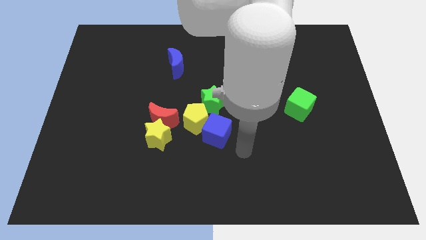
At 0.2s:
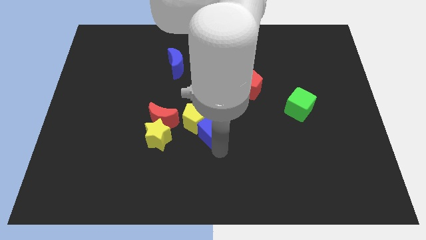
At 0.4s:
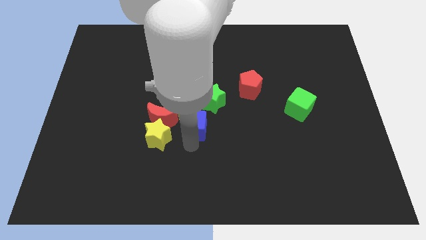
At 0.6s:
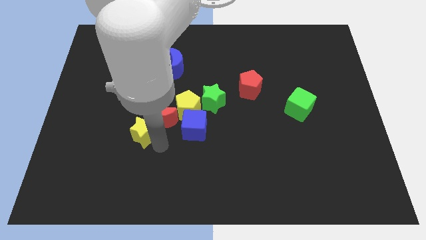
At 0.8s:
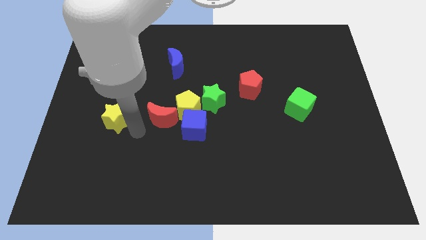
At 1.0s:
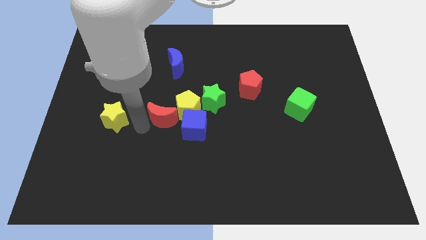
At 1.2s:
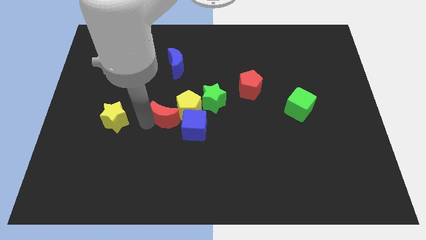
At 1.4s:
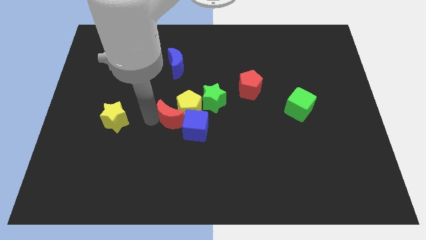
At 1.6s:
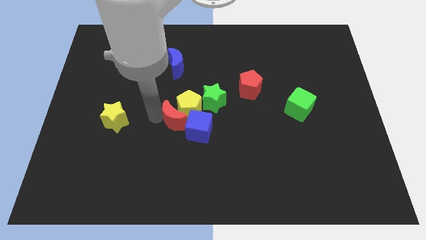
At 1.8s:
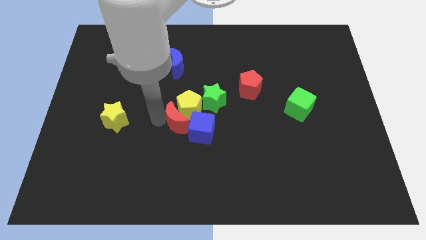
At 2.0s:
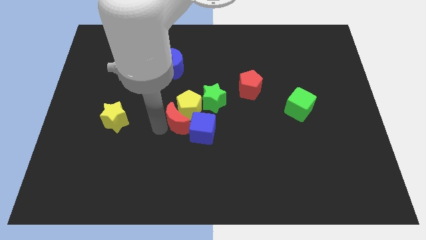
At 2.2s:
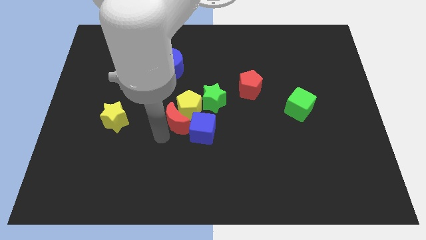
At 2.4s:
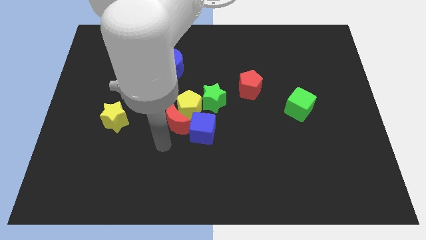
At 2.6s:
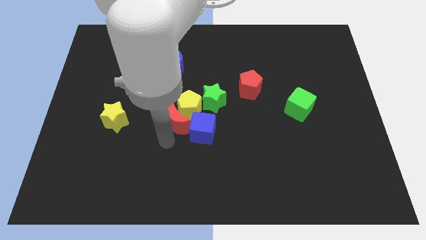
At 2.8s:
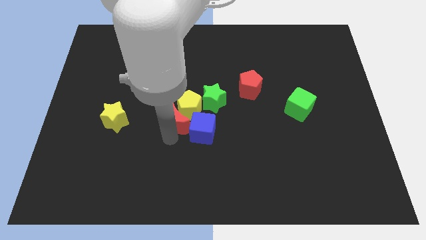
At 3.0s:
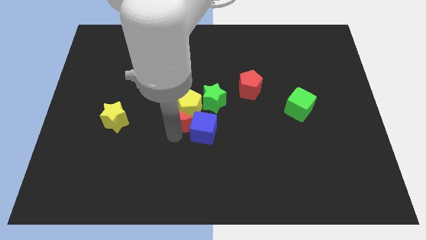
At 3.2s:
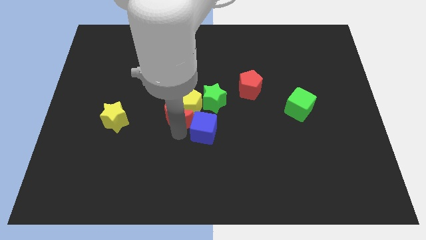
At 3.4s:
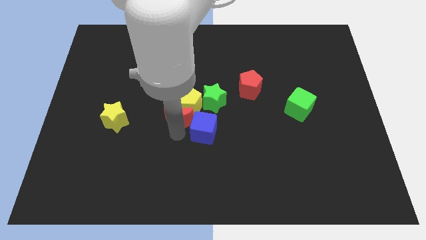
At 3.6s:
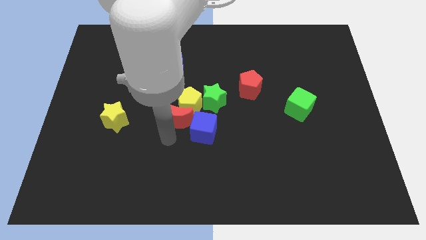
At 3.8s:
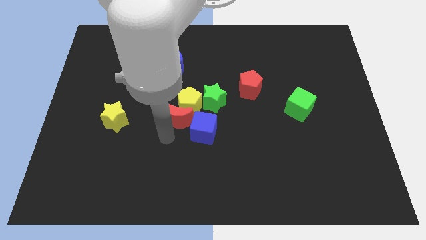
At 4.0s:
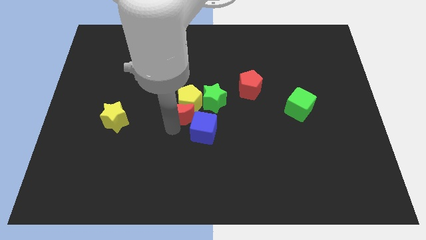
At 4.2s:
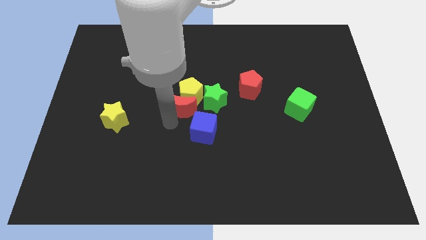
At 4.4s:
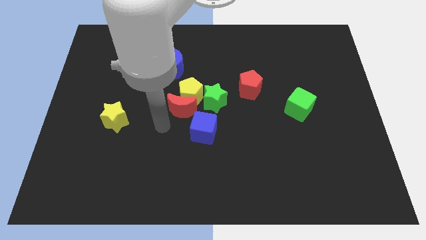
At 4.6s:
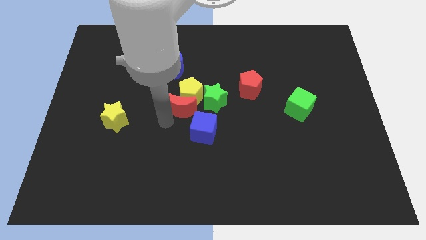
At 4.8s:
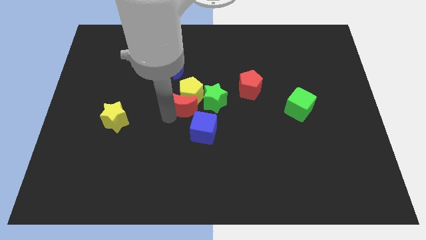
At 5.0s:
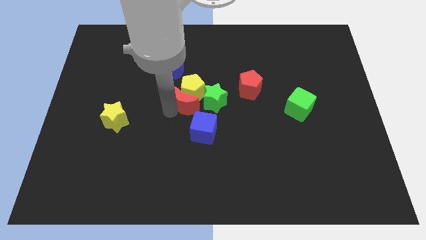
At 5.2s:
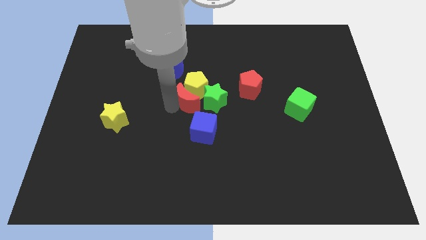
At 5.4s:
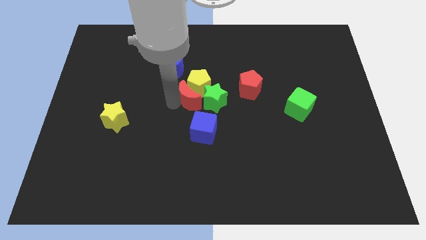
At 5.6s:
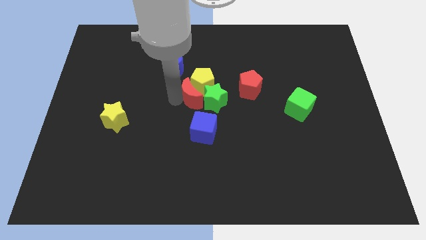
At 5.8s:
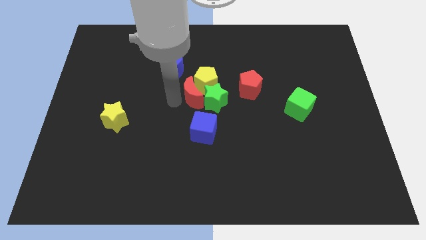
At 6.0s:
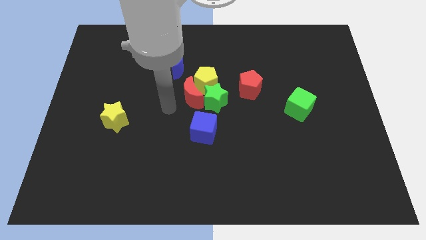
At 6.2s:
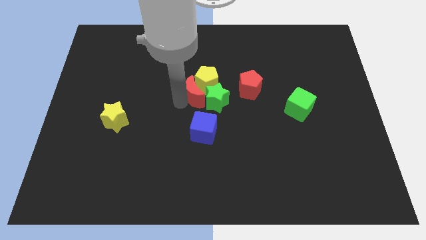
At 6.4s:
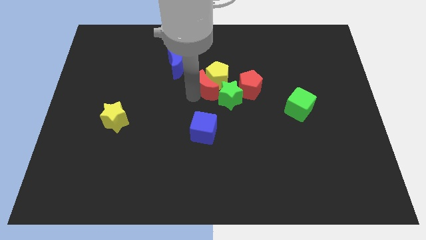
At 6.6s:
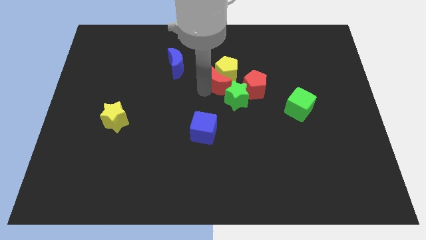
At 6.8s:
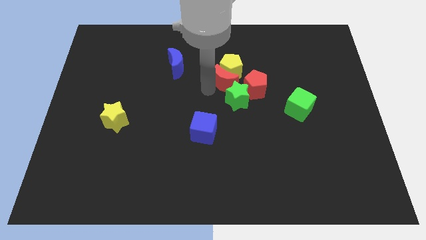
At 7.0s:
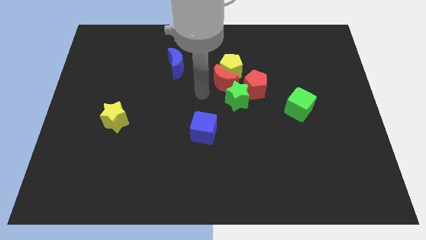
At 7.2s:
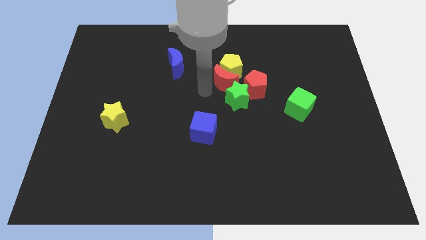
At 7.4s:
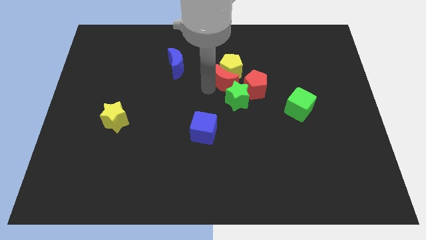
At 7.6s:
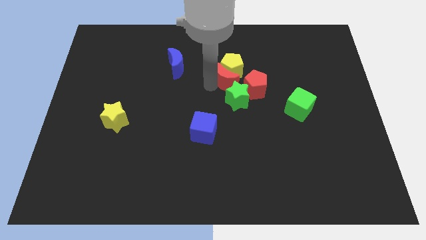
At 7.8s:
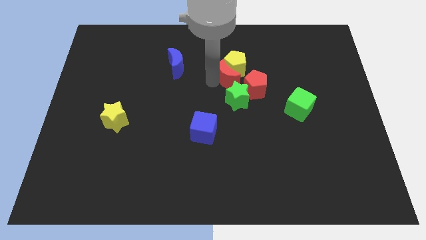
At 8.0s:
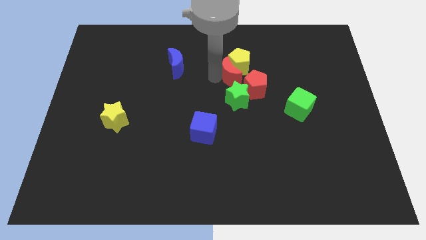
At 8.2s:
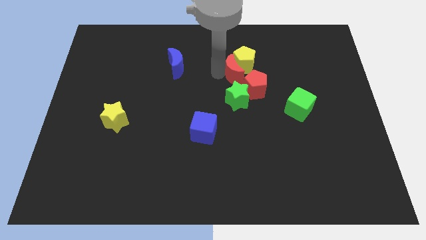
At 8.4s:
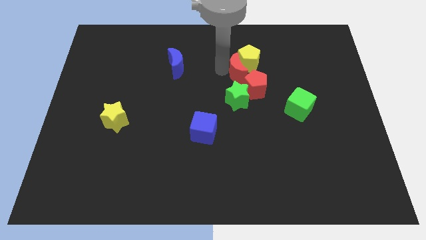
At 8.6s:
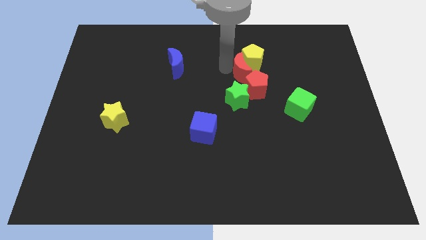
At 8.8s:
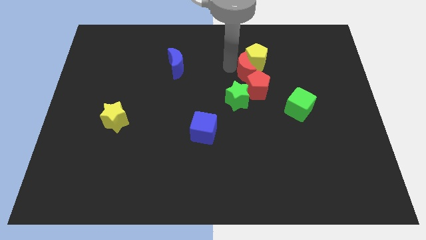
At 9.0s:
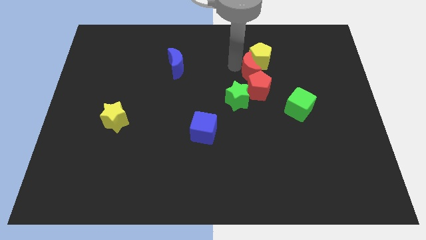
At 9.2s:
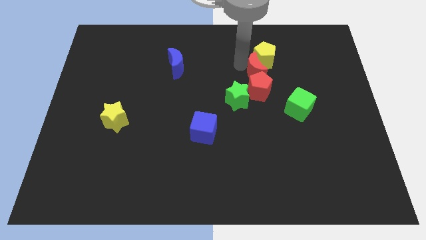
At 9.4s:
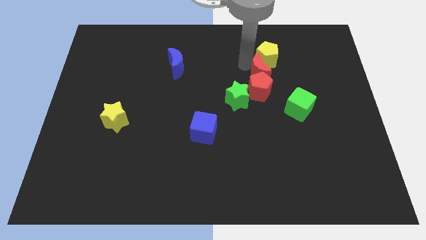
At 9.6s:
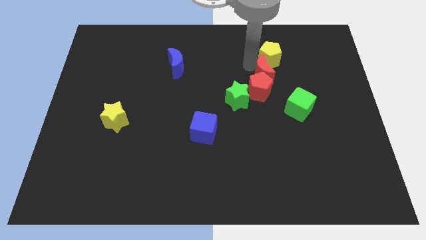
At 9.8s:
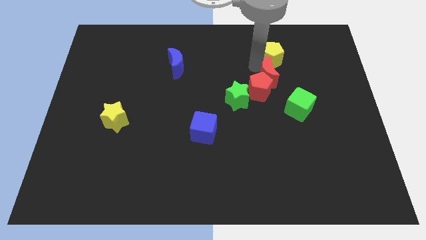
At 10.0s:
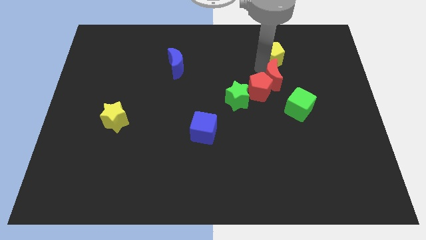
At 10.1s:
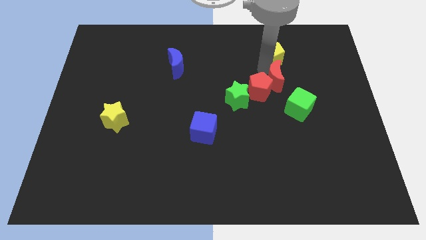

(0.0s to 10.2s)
push the red moon above the green cube

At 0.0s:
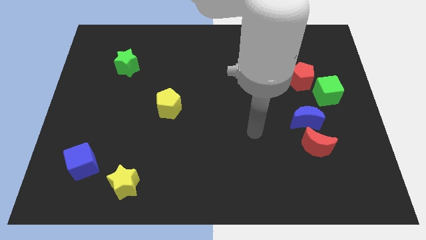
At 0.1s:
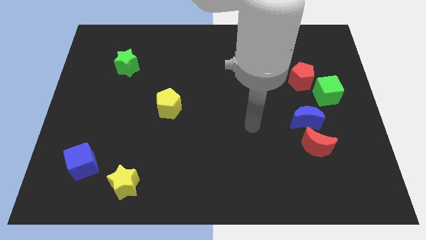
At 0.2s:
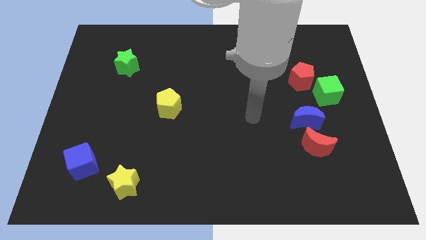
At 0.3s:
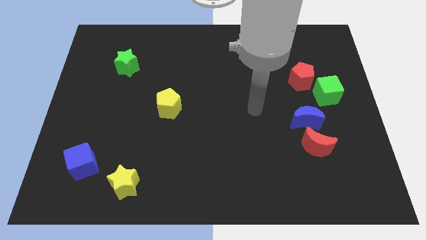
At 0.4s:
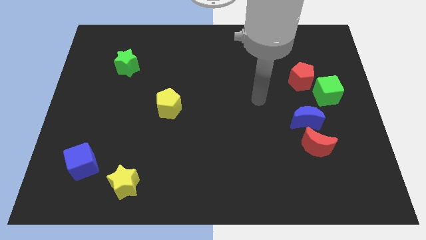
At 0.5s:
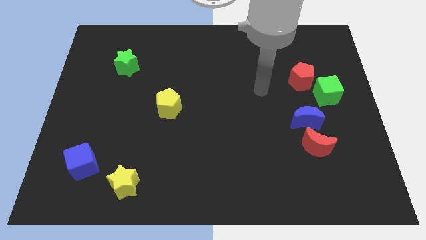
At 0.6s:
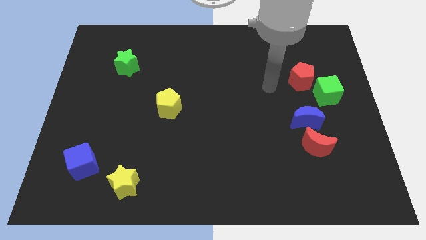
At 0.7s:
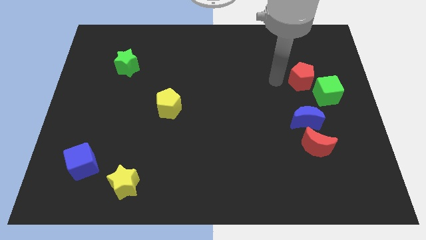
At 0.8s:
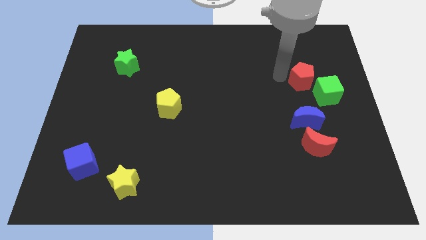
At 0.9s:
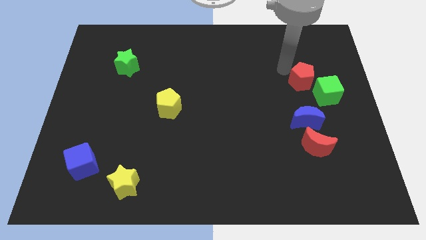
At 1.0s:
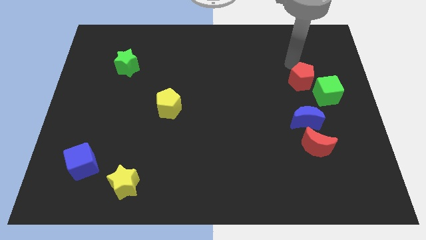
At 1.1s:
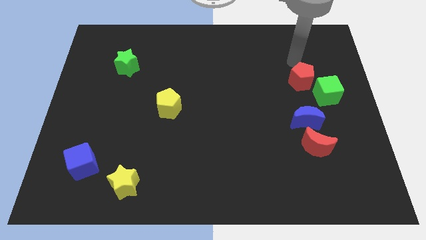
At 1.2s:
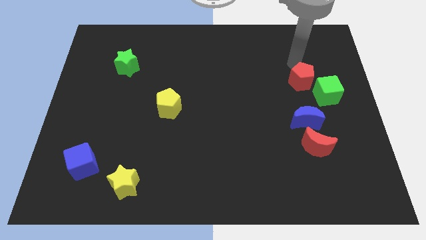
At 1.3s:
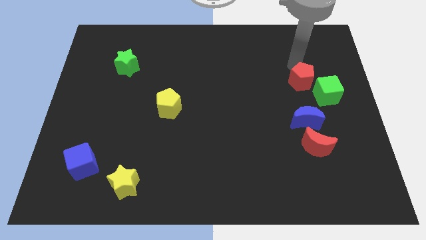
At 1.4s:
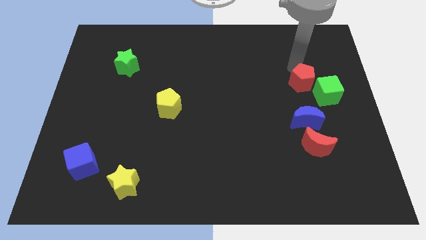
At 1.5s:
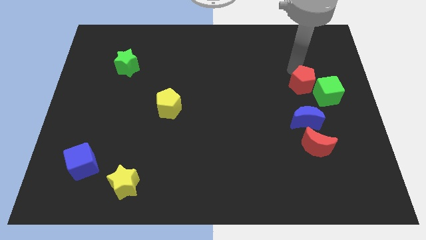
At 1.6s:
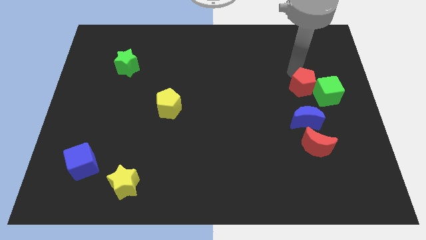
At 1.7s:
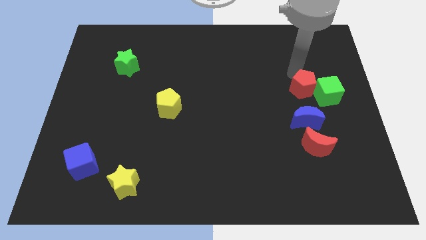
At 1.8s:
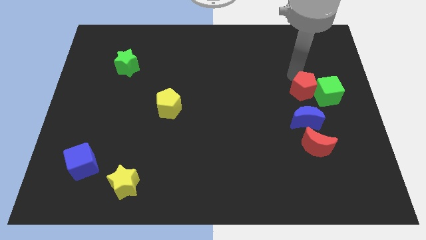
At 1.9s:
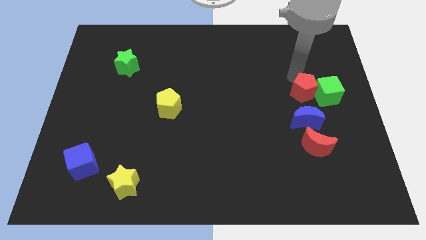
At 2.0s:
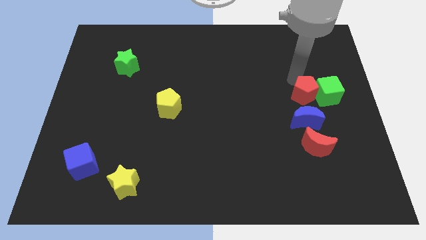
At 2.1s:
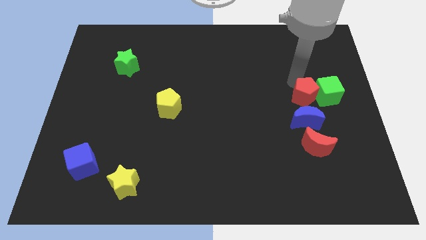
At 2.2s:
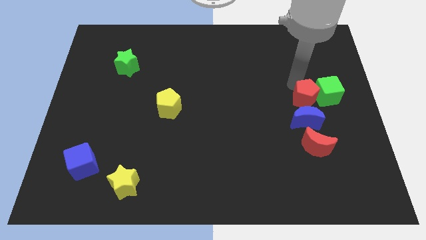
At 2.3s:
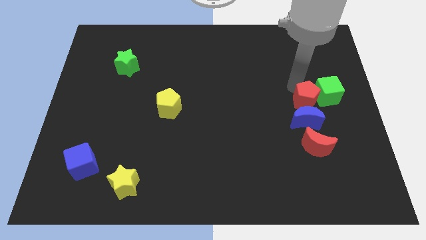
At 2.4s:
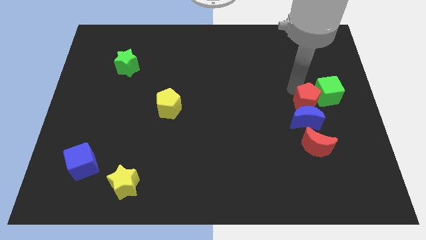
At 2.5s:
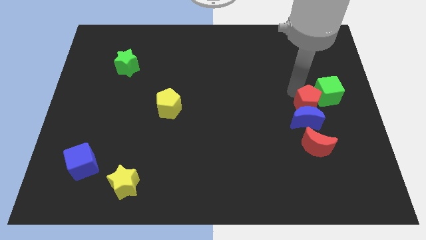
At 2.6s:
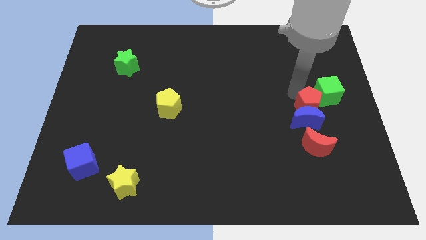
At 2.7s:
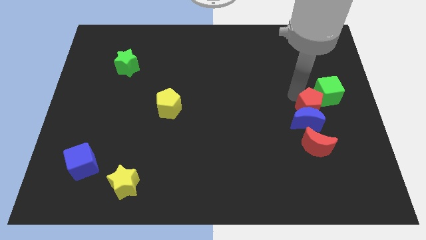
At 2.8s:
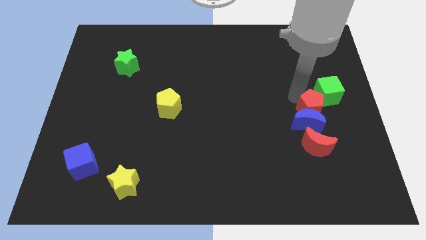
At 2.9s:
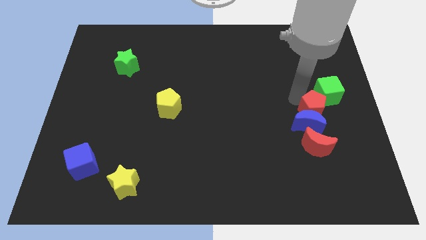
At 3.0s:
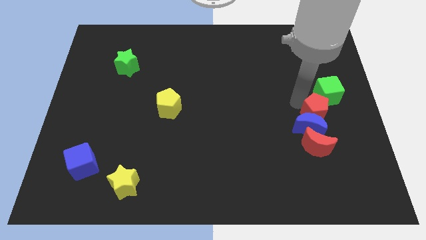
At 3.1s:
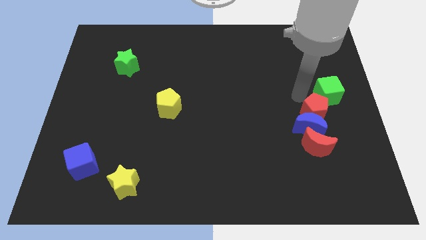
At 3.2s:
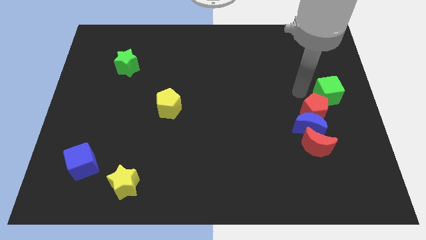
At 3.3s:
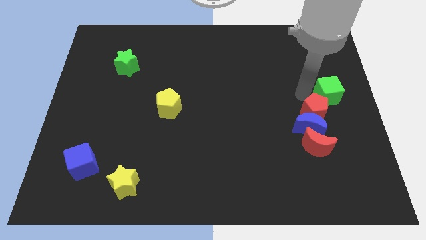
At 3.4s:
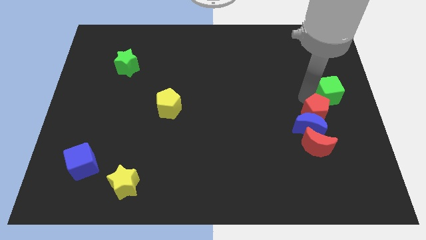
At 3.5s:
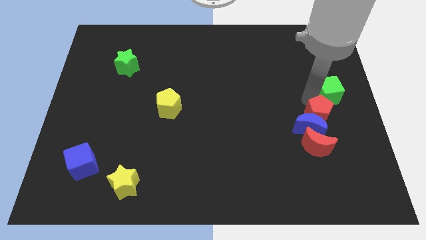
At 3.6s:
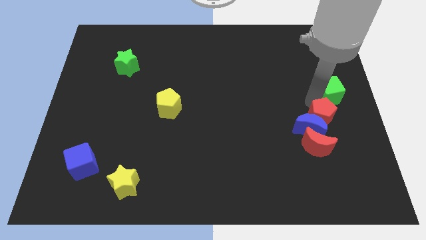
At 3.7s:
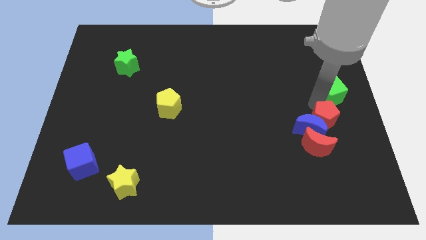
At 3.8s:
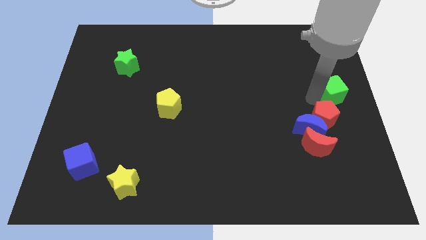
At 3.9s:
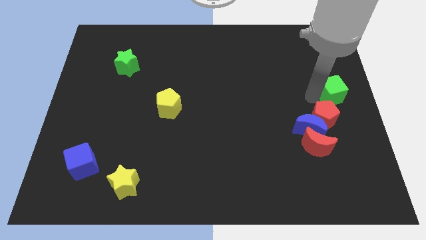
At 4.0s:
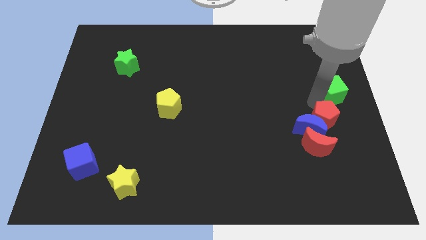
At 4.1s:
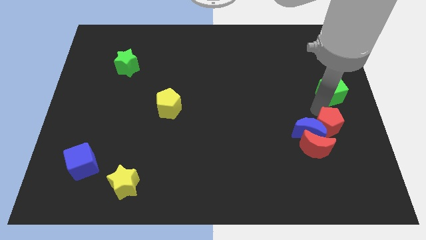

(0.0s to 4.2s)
slide the red pentagon to the bottom right side of the blue moon
